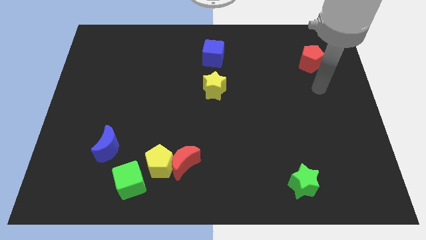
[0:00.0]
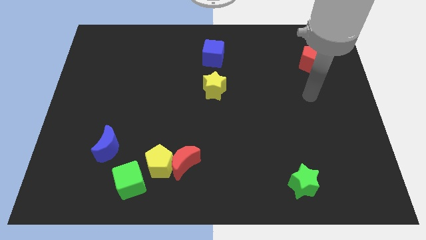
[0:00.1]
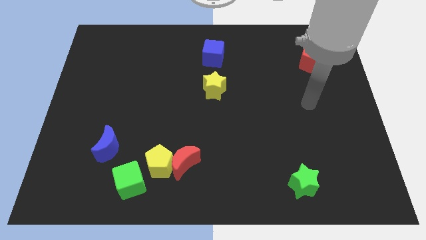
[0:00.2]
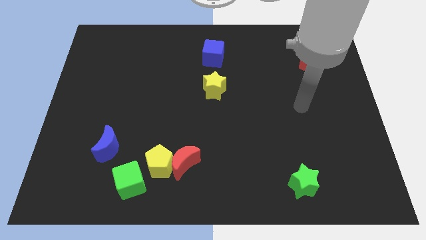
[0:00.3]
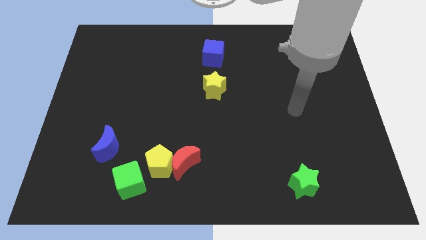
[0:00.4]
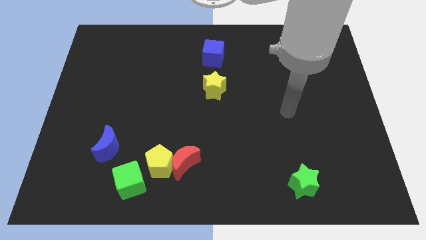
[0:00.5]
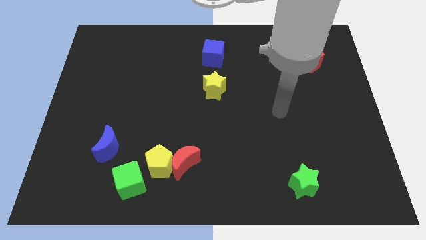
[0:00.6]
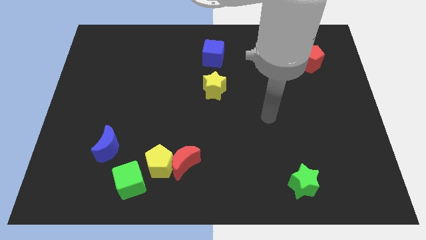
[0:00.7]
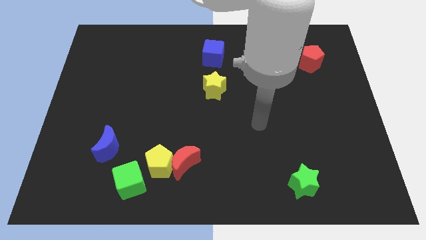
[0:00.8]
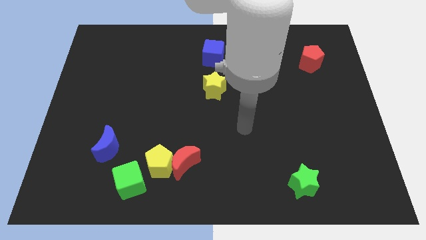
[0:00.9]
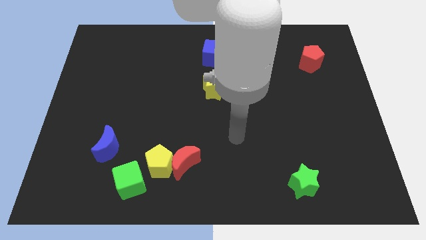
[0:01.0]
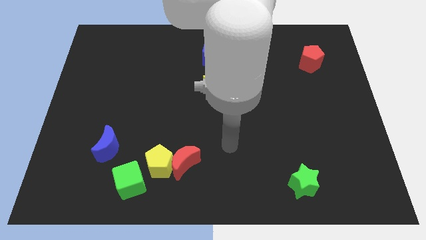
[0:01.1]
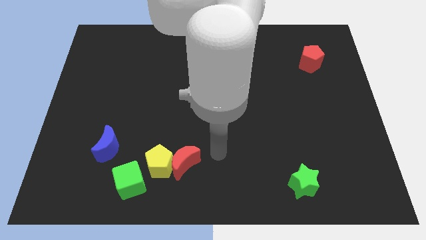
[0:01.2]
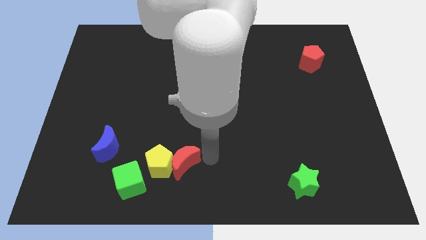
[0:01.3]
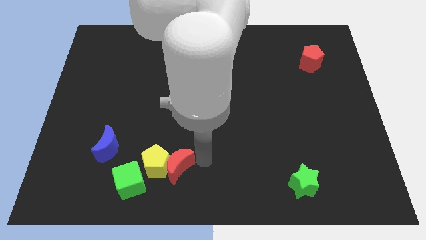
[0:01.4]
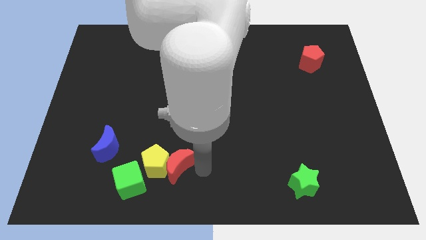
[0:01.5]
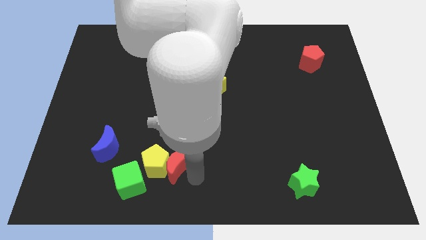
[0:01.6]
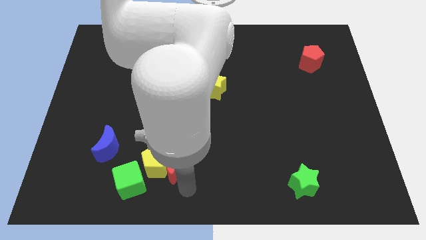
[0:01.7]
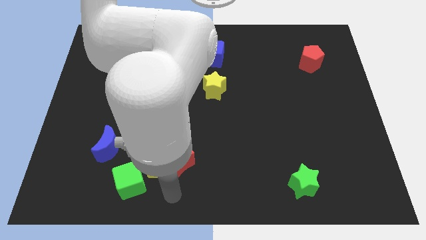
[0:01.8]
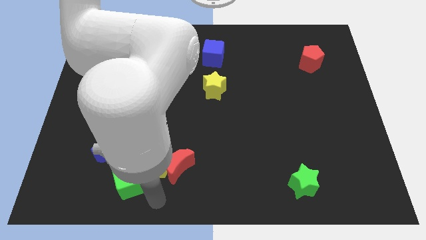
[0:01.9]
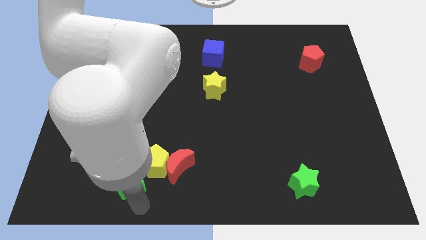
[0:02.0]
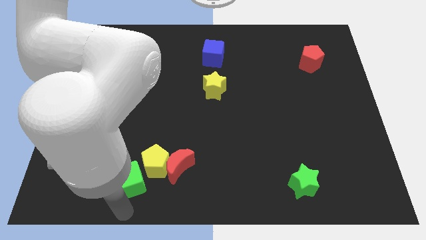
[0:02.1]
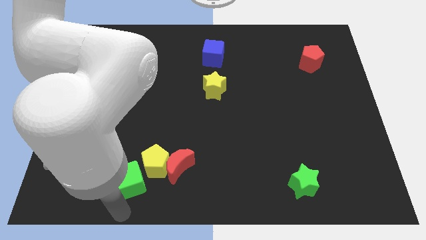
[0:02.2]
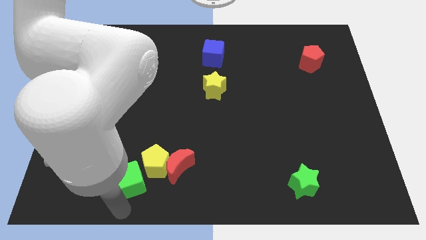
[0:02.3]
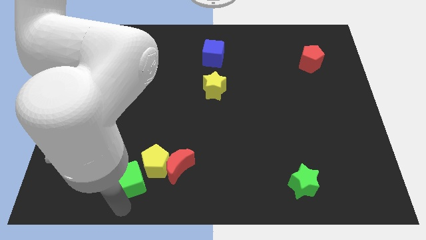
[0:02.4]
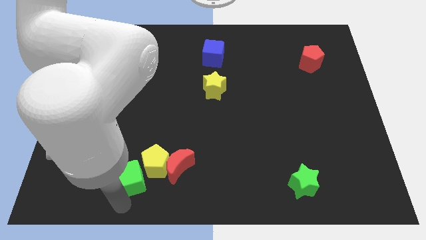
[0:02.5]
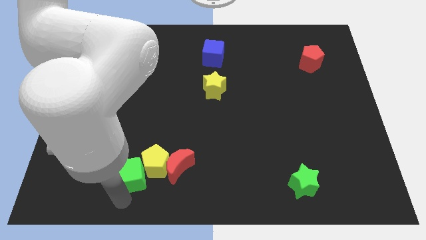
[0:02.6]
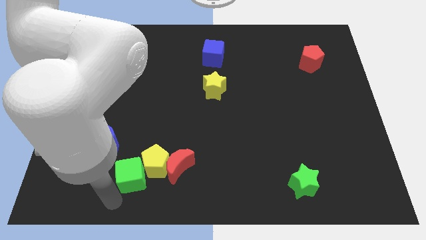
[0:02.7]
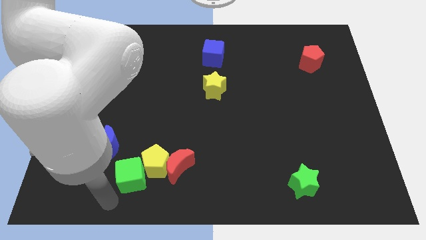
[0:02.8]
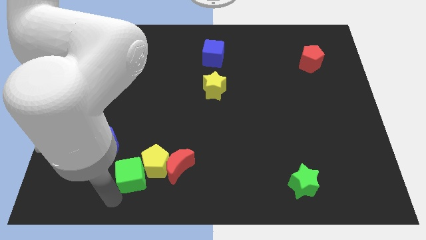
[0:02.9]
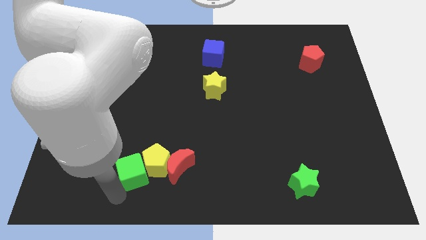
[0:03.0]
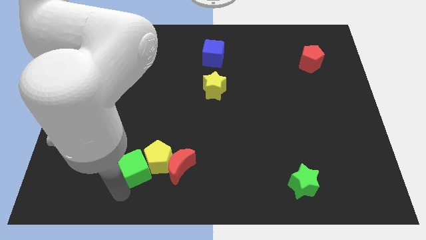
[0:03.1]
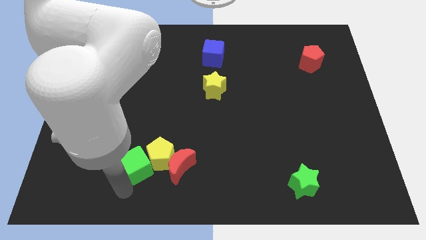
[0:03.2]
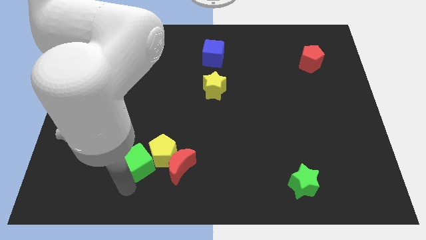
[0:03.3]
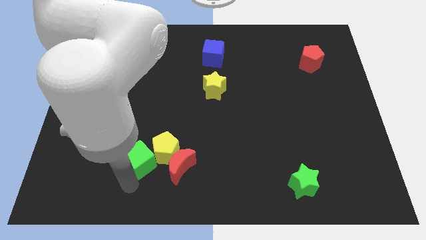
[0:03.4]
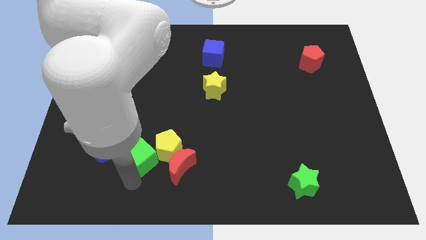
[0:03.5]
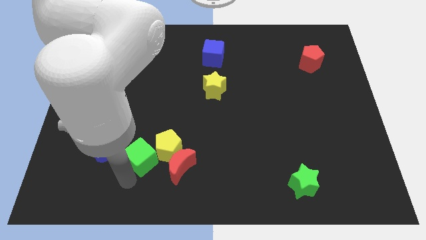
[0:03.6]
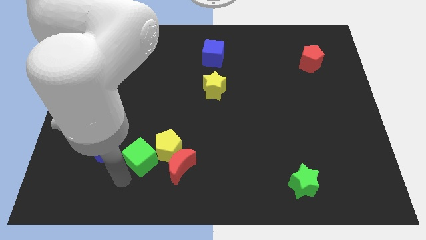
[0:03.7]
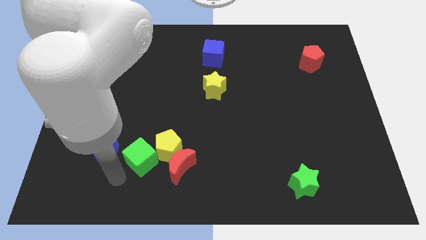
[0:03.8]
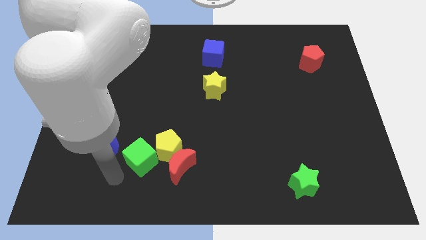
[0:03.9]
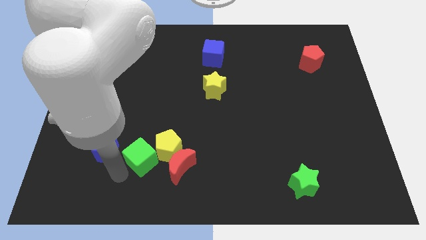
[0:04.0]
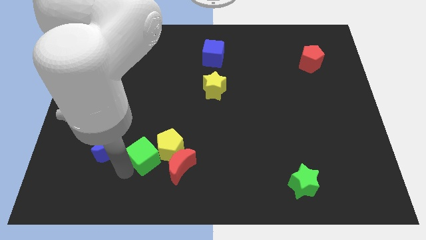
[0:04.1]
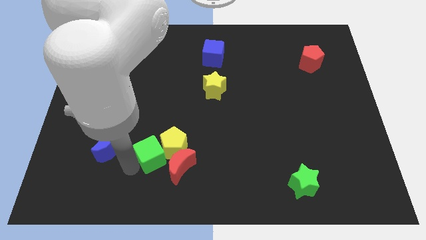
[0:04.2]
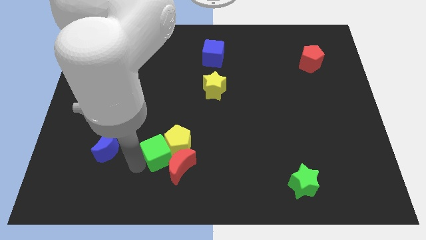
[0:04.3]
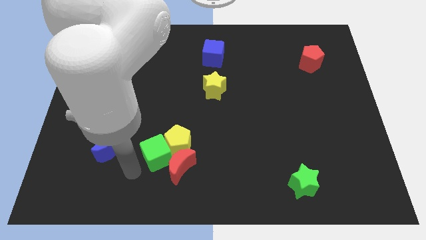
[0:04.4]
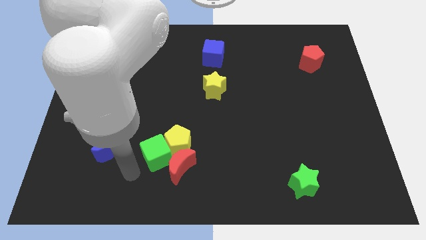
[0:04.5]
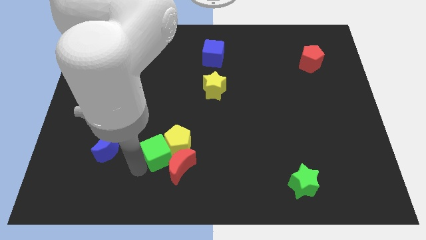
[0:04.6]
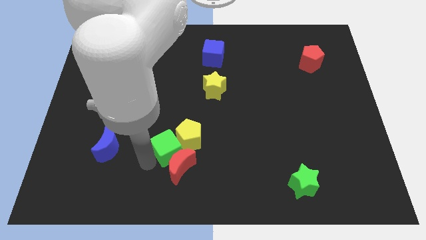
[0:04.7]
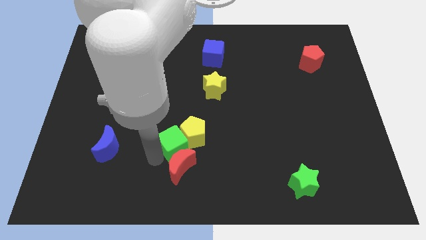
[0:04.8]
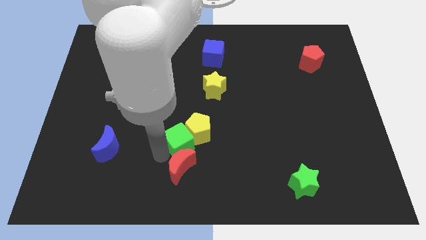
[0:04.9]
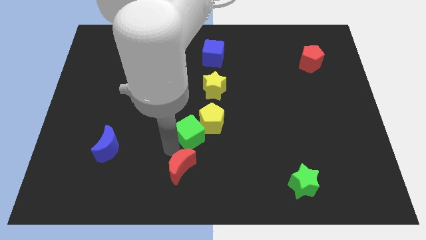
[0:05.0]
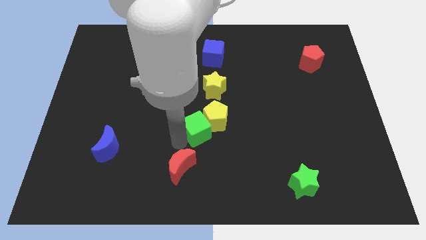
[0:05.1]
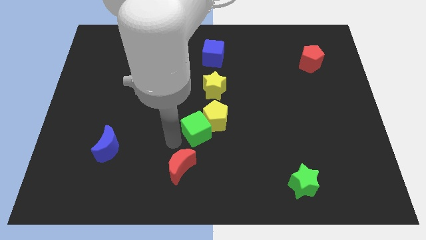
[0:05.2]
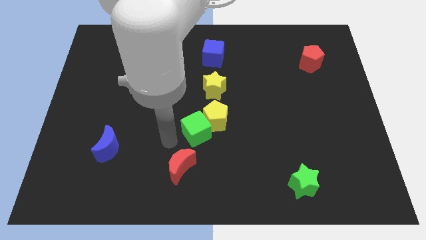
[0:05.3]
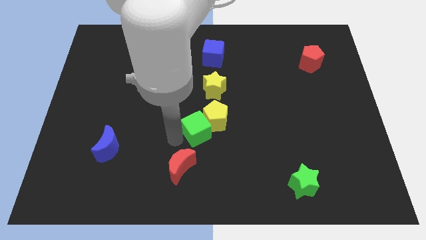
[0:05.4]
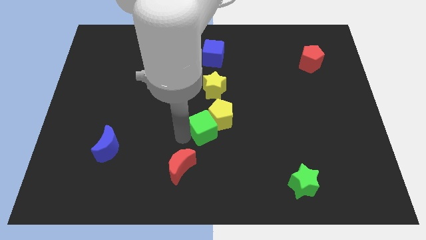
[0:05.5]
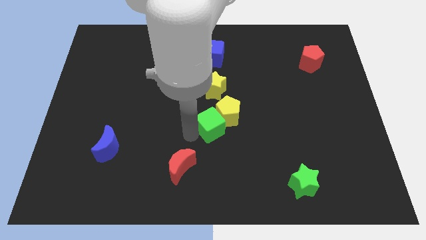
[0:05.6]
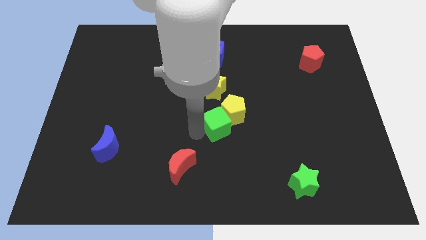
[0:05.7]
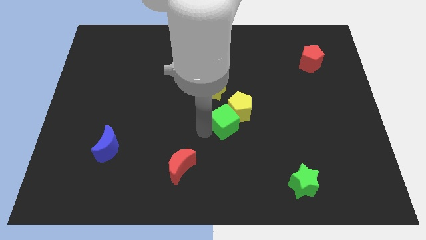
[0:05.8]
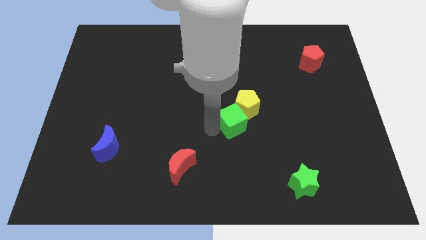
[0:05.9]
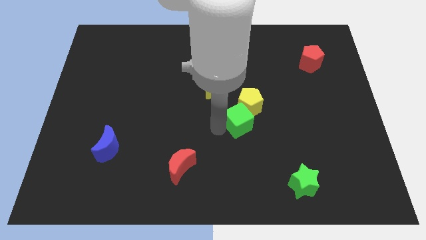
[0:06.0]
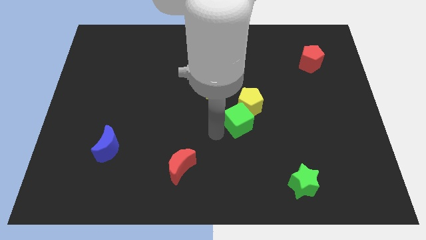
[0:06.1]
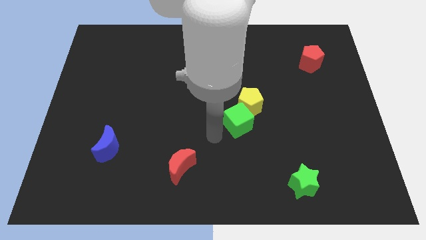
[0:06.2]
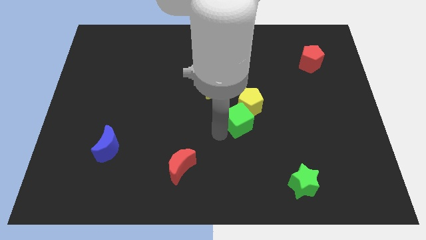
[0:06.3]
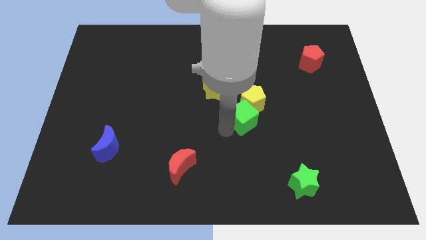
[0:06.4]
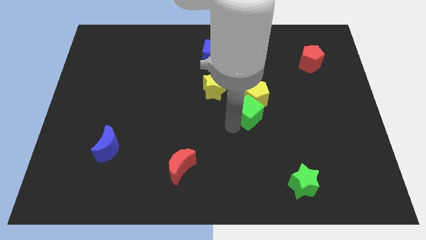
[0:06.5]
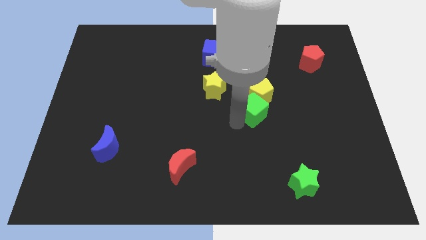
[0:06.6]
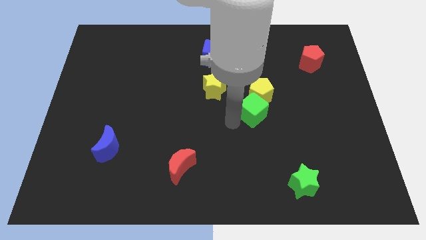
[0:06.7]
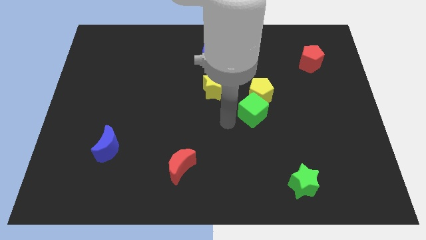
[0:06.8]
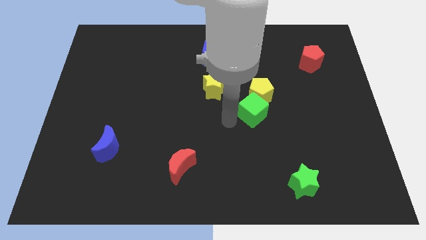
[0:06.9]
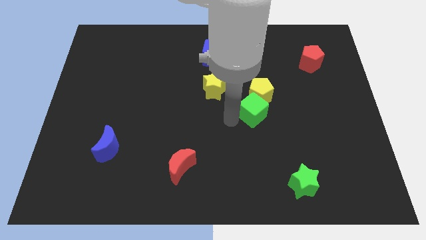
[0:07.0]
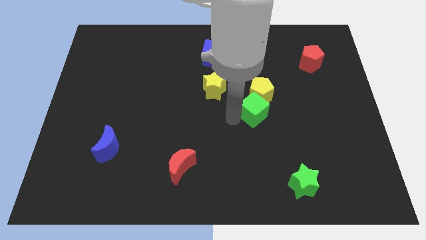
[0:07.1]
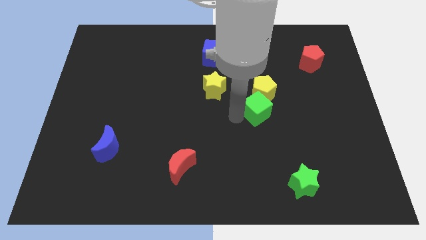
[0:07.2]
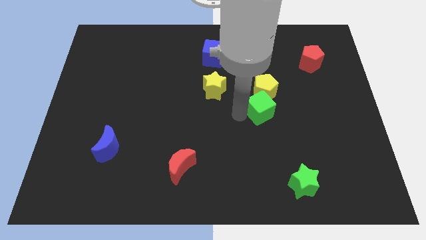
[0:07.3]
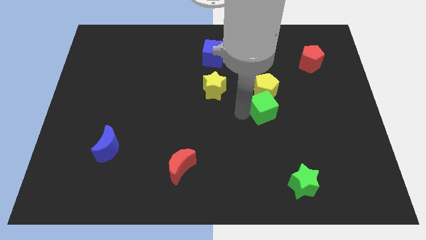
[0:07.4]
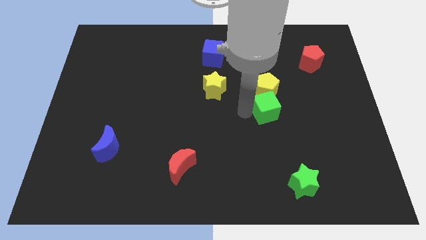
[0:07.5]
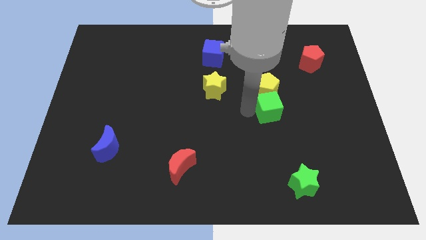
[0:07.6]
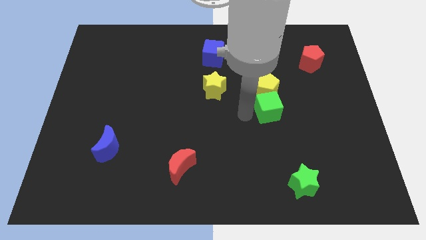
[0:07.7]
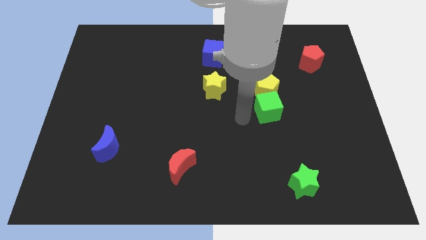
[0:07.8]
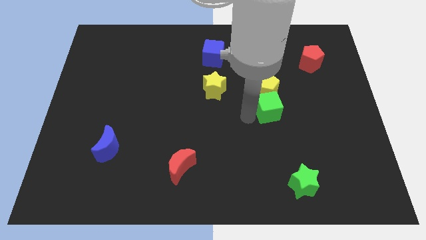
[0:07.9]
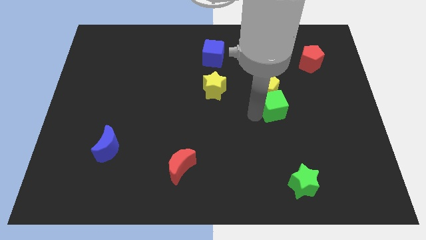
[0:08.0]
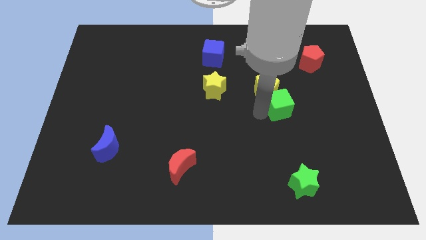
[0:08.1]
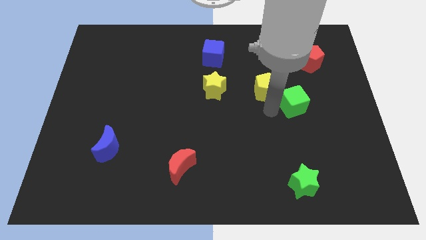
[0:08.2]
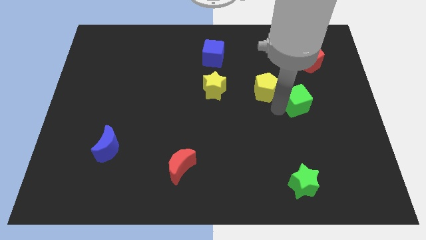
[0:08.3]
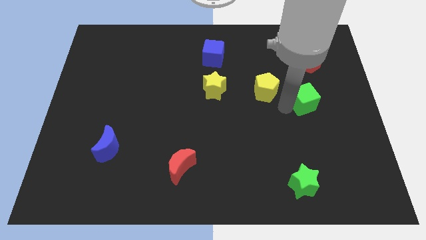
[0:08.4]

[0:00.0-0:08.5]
put the green cube to the bottom side of the red pentagon
